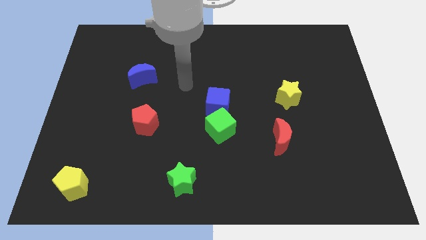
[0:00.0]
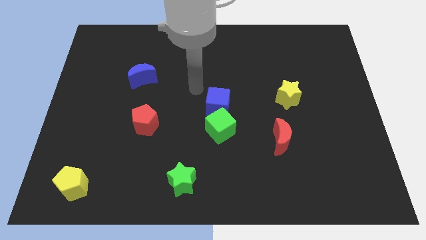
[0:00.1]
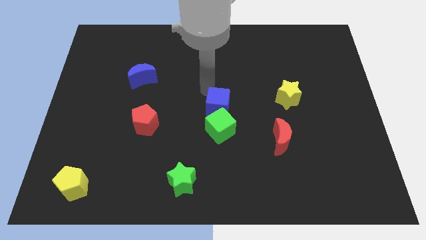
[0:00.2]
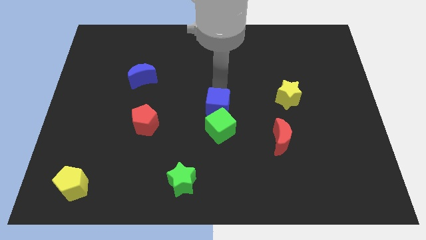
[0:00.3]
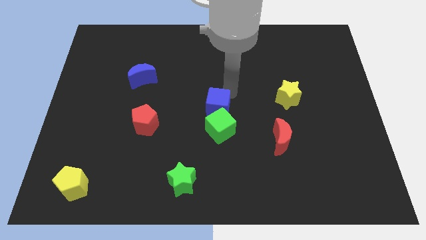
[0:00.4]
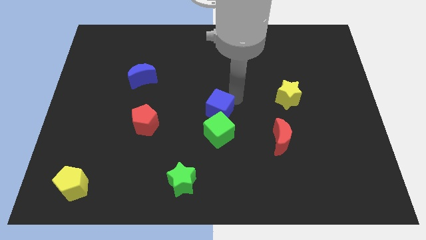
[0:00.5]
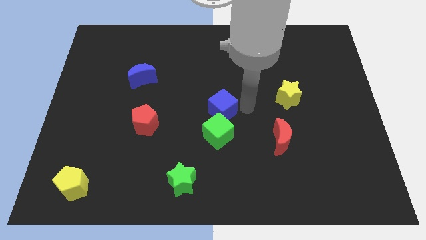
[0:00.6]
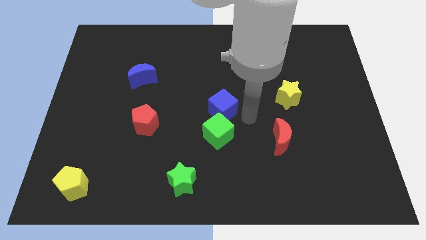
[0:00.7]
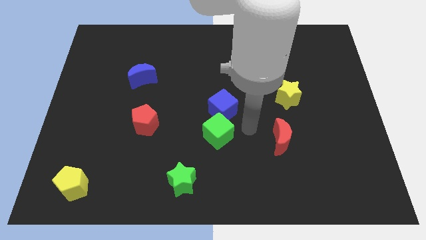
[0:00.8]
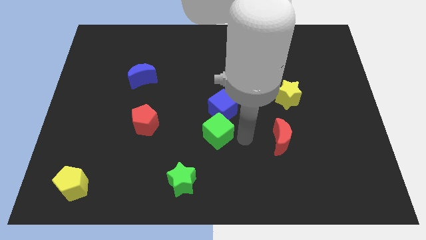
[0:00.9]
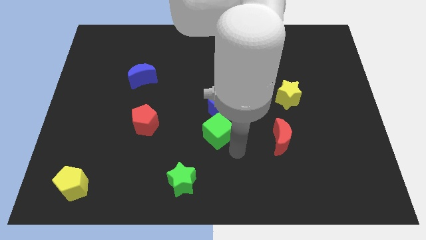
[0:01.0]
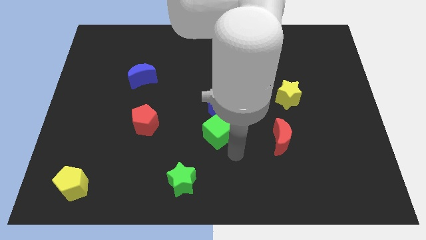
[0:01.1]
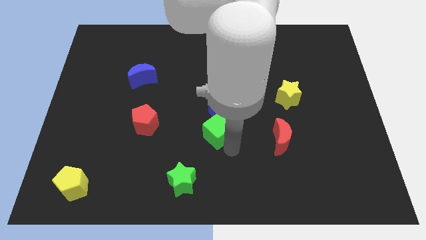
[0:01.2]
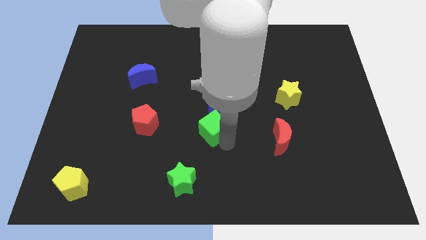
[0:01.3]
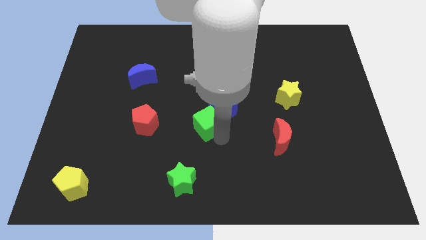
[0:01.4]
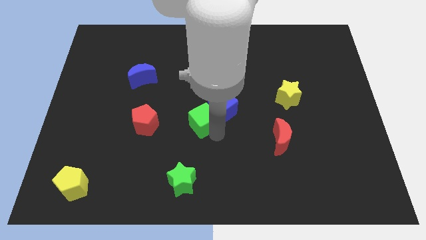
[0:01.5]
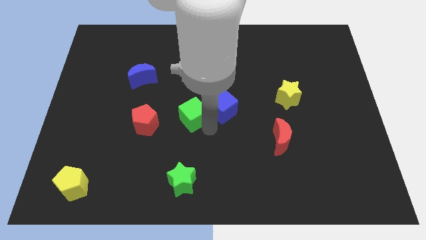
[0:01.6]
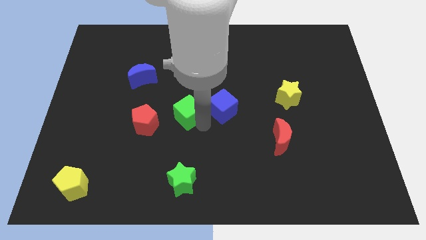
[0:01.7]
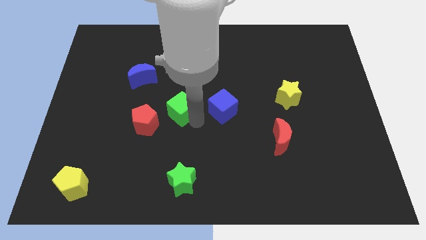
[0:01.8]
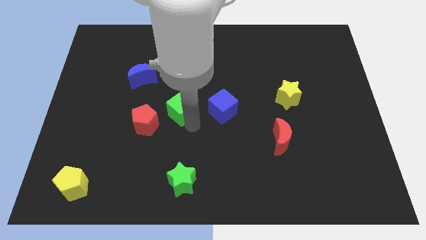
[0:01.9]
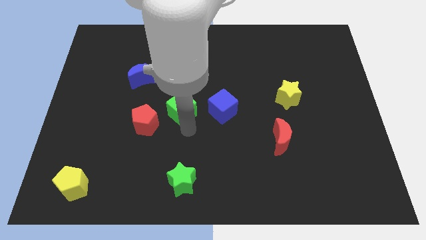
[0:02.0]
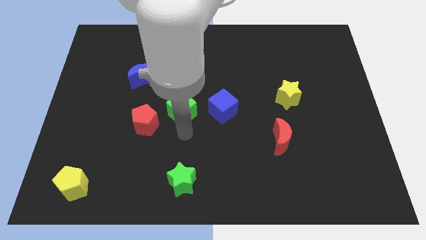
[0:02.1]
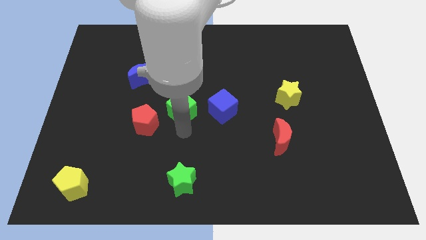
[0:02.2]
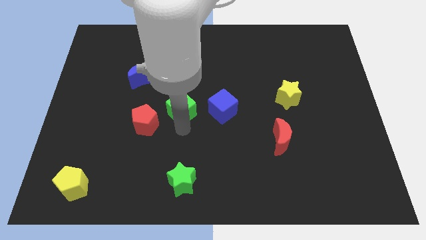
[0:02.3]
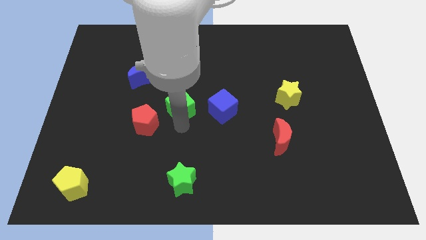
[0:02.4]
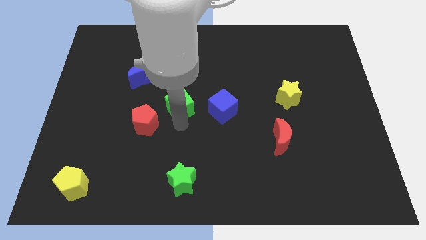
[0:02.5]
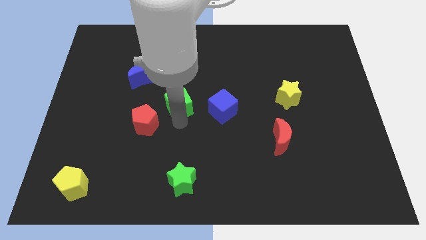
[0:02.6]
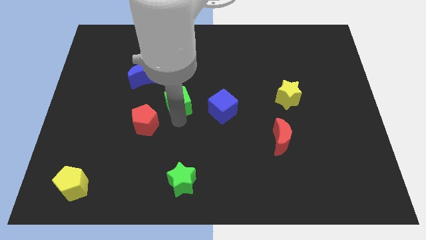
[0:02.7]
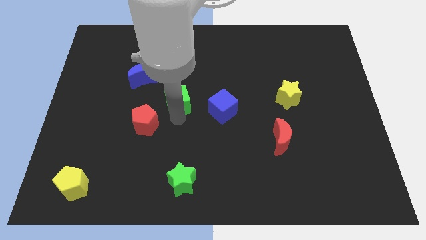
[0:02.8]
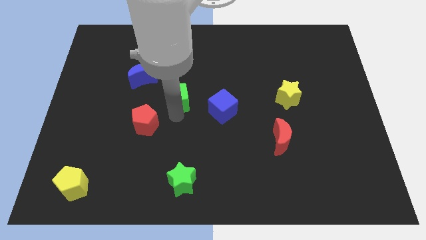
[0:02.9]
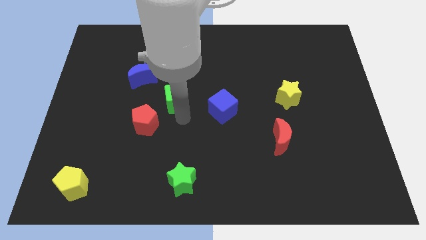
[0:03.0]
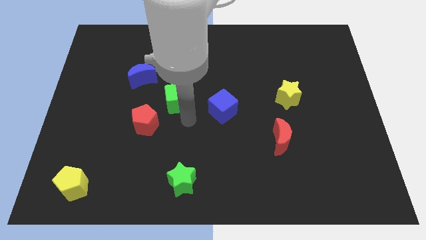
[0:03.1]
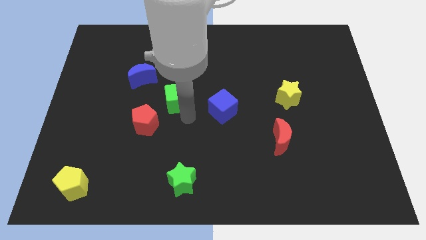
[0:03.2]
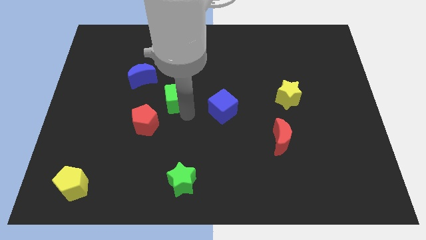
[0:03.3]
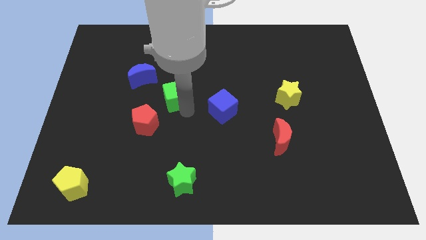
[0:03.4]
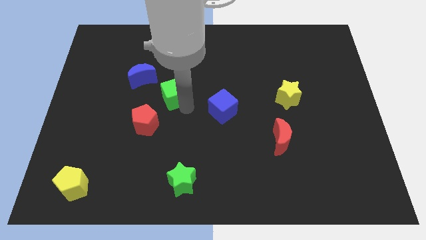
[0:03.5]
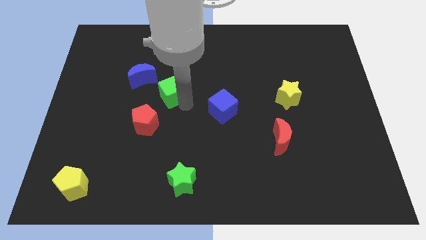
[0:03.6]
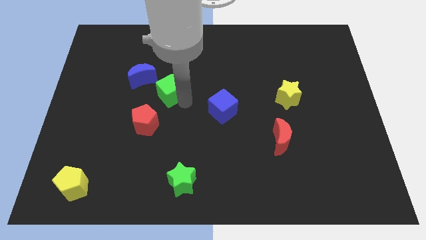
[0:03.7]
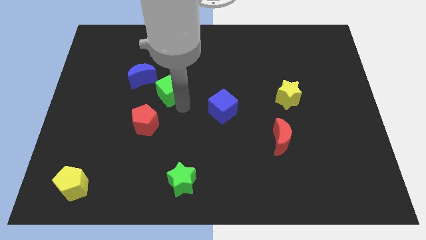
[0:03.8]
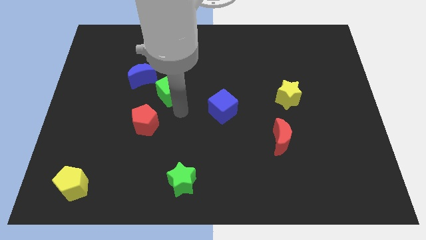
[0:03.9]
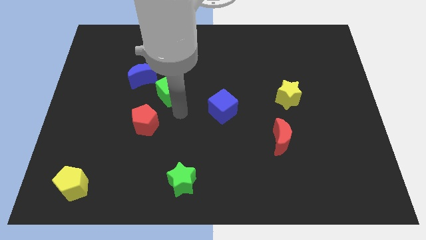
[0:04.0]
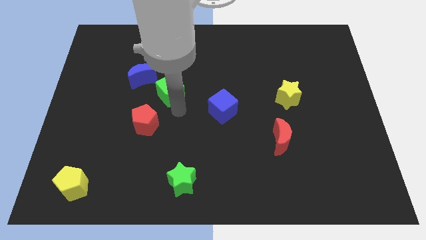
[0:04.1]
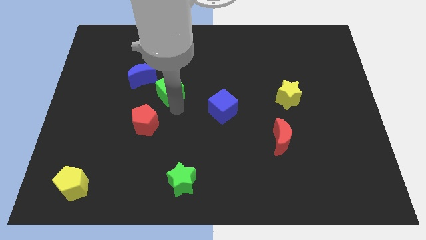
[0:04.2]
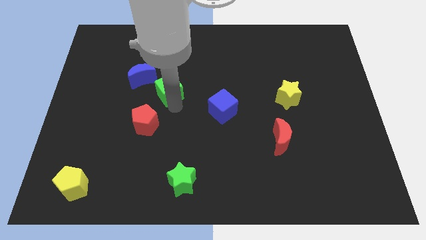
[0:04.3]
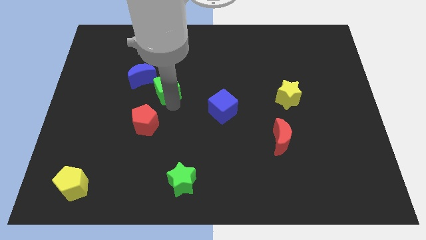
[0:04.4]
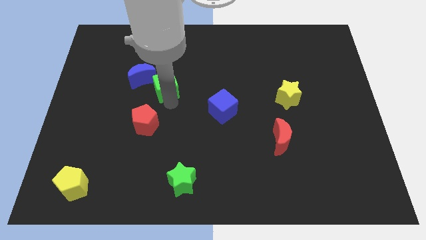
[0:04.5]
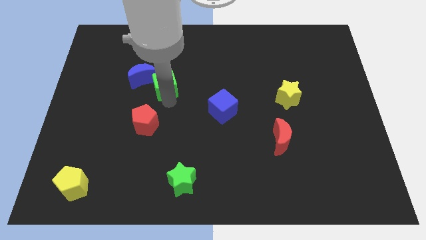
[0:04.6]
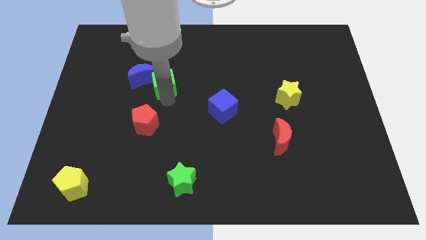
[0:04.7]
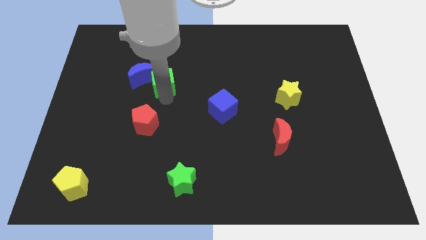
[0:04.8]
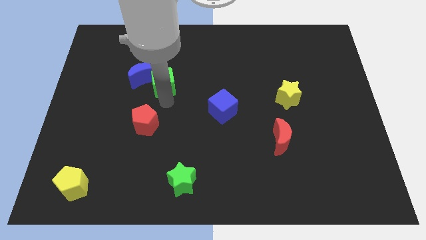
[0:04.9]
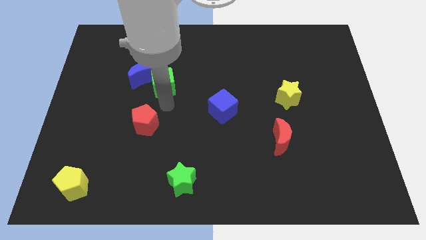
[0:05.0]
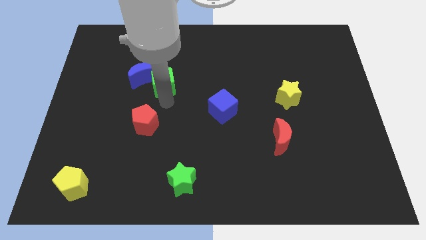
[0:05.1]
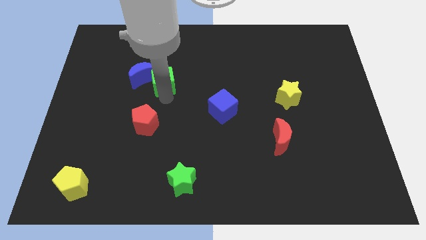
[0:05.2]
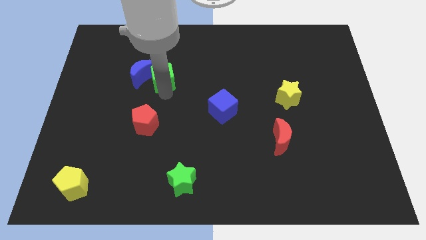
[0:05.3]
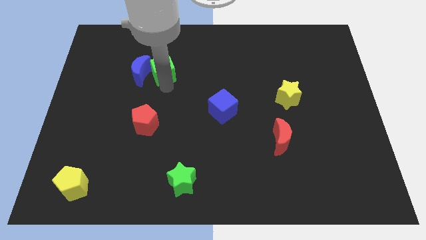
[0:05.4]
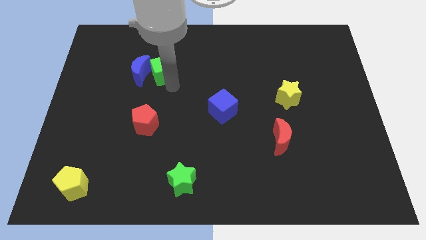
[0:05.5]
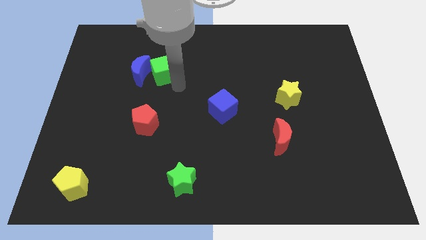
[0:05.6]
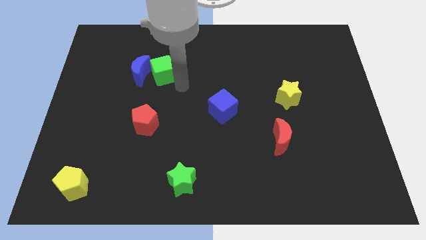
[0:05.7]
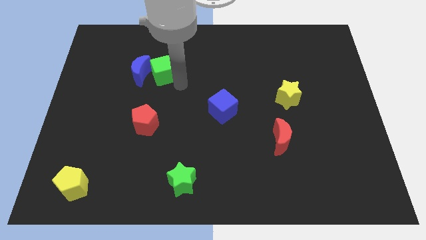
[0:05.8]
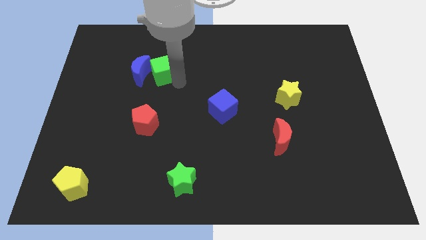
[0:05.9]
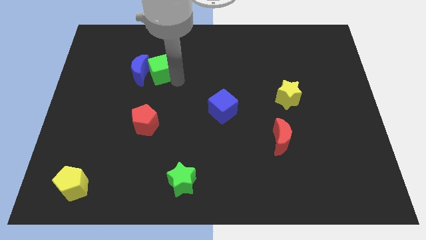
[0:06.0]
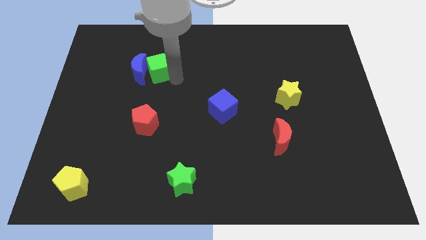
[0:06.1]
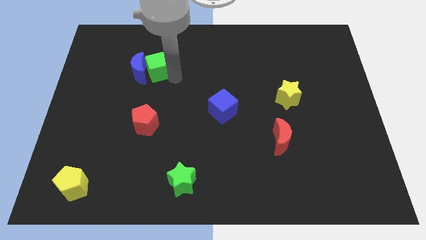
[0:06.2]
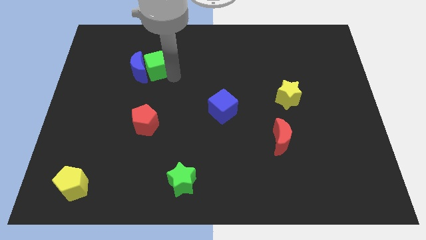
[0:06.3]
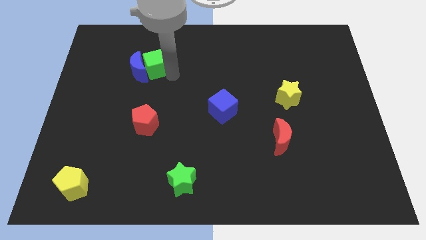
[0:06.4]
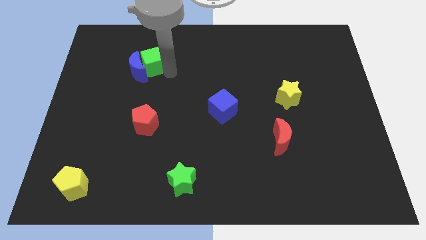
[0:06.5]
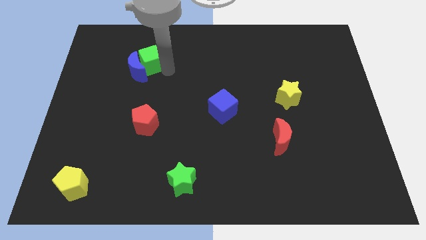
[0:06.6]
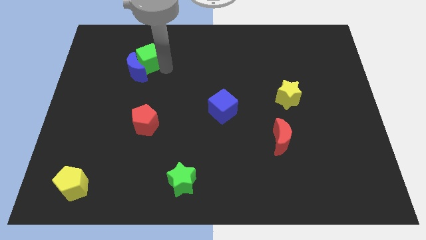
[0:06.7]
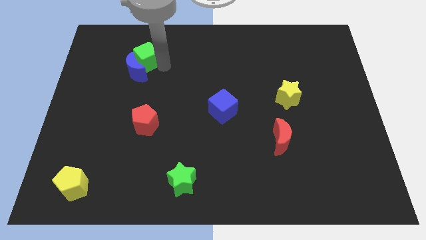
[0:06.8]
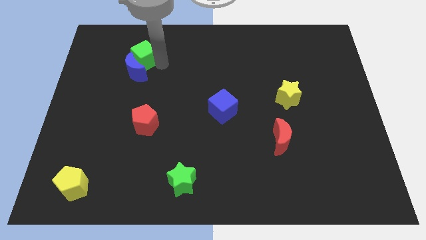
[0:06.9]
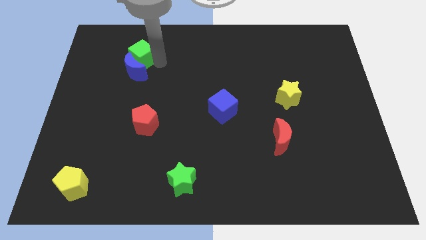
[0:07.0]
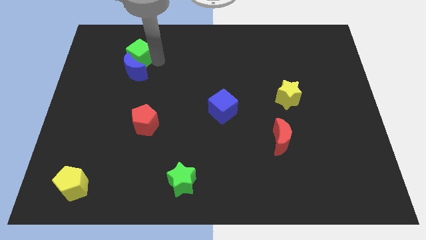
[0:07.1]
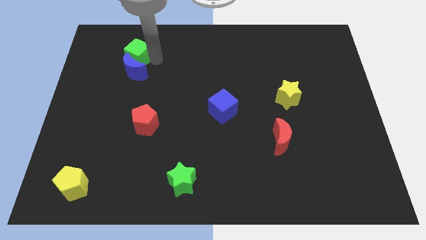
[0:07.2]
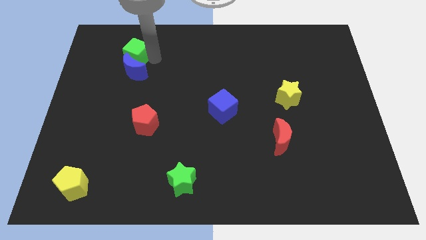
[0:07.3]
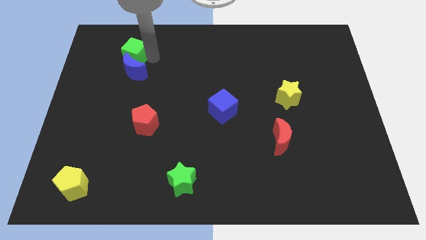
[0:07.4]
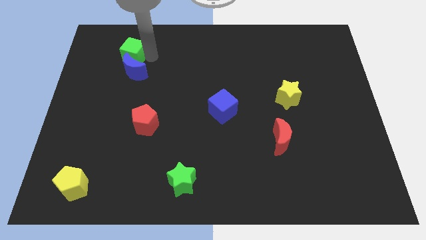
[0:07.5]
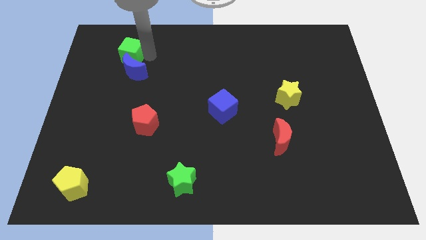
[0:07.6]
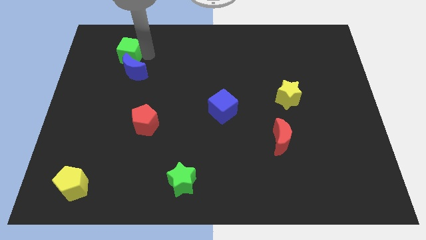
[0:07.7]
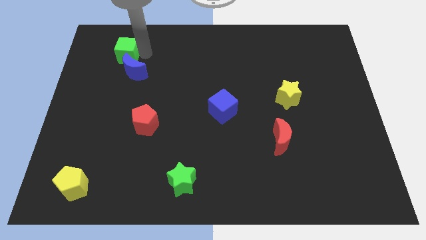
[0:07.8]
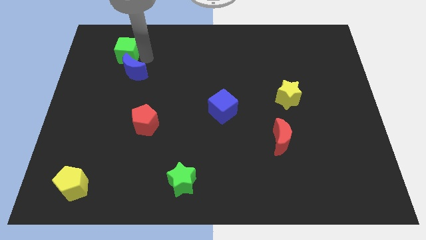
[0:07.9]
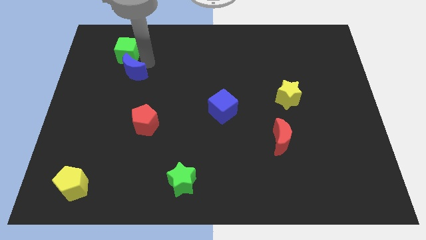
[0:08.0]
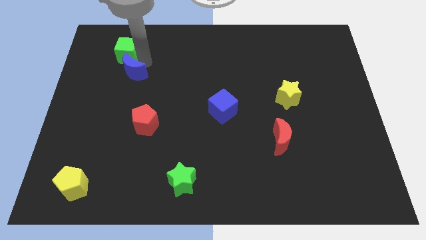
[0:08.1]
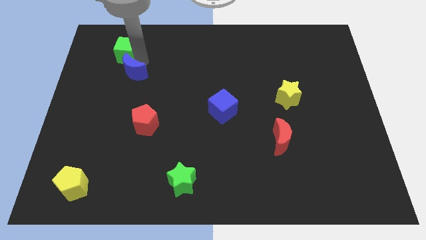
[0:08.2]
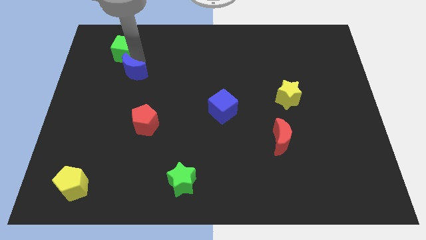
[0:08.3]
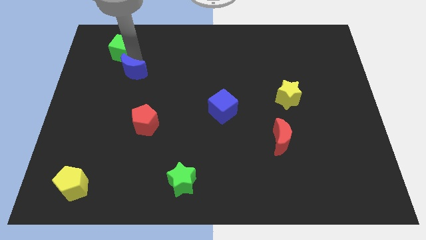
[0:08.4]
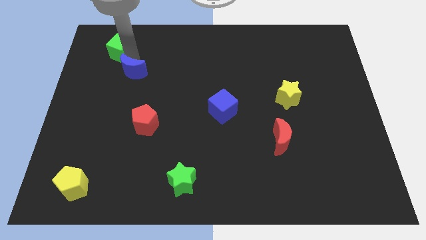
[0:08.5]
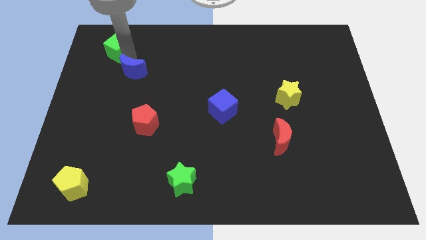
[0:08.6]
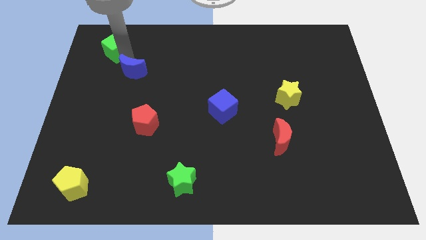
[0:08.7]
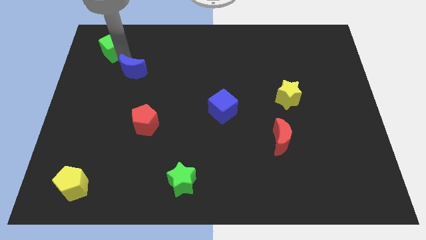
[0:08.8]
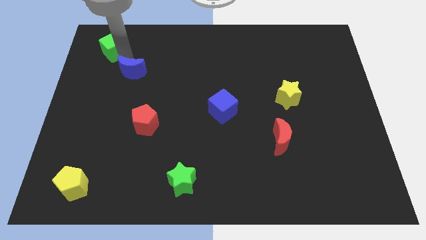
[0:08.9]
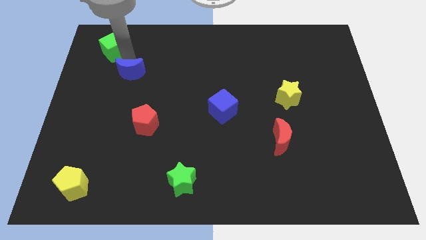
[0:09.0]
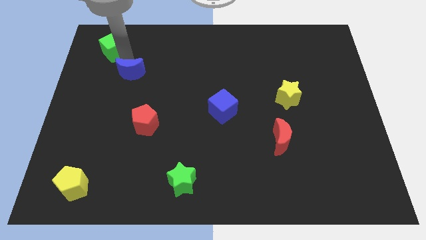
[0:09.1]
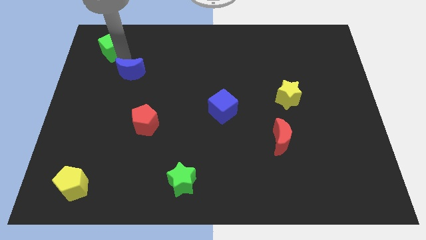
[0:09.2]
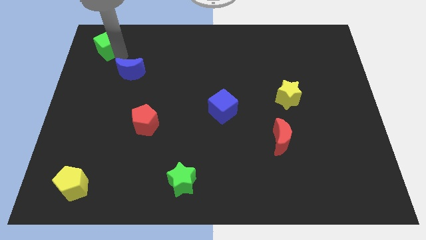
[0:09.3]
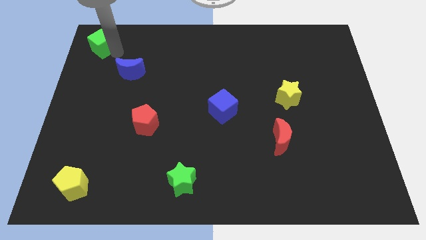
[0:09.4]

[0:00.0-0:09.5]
push the green cube to the top left of the board
